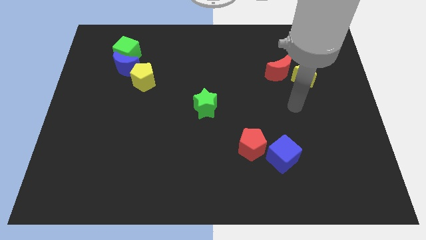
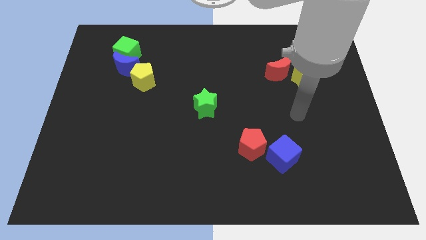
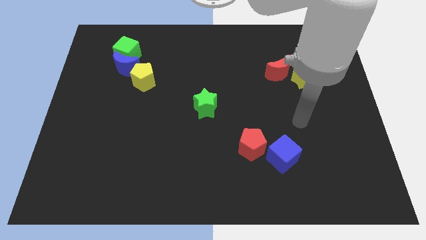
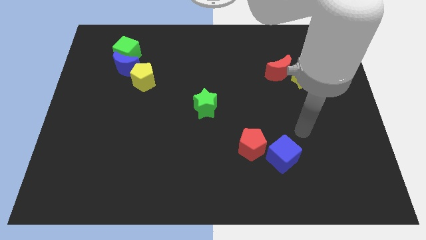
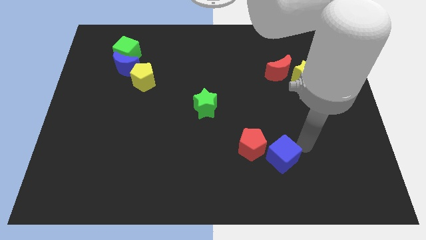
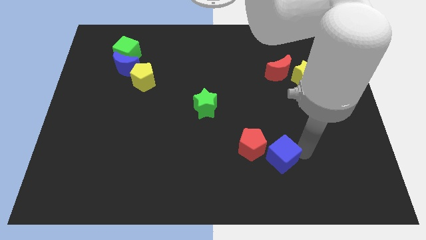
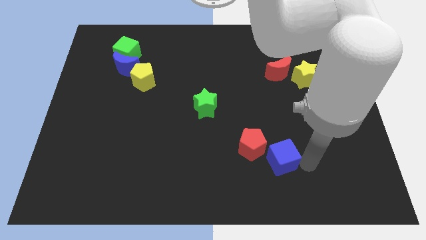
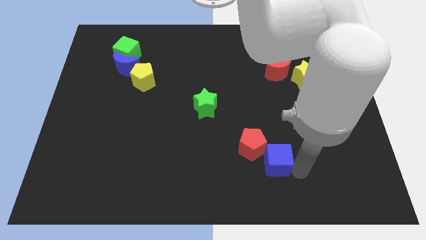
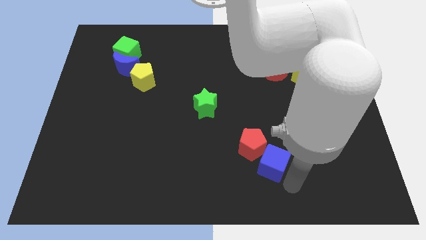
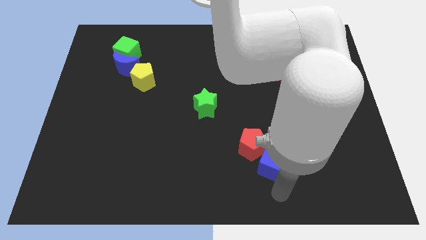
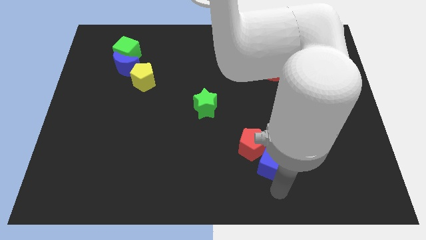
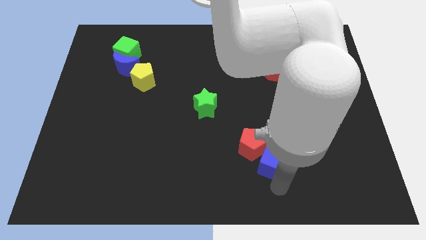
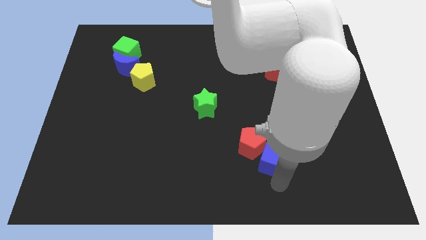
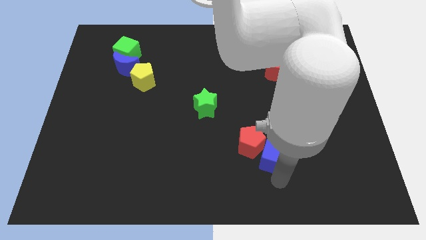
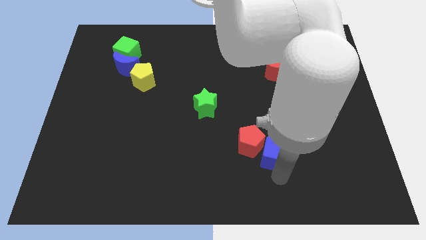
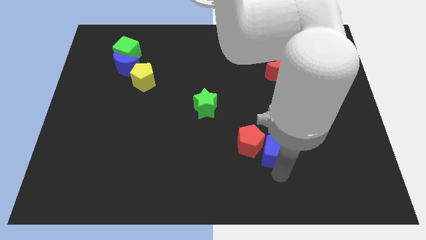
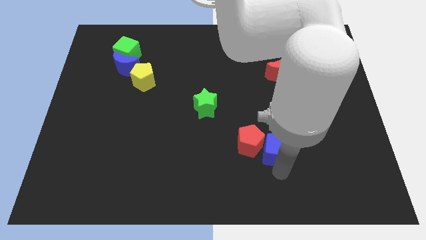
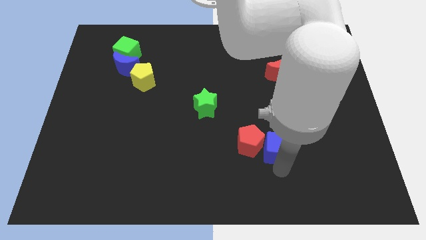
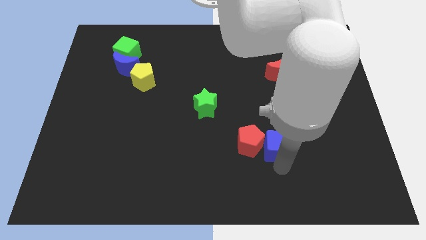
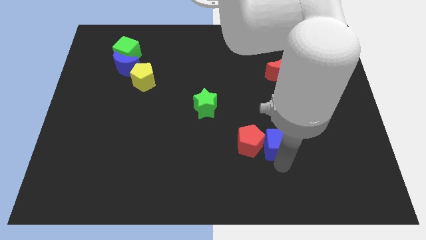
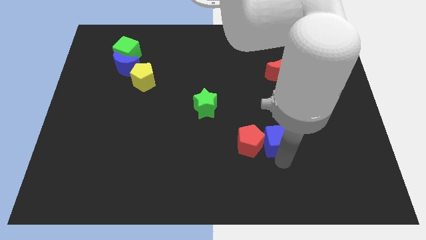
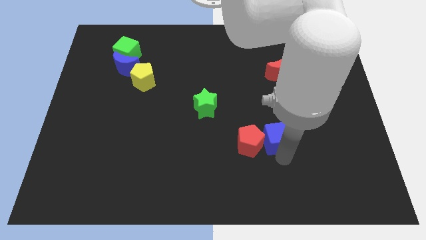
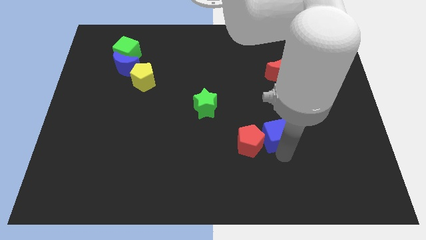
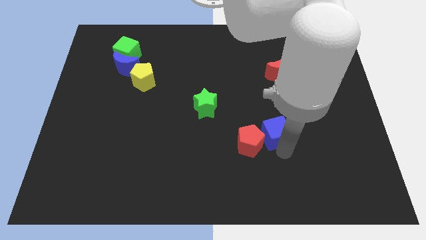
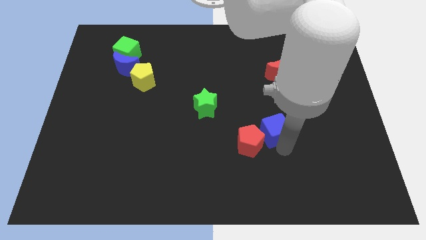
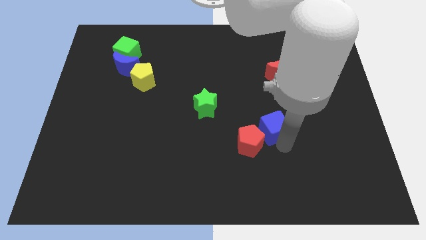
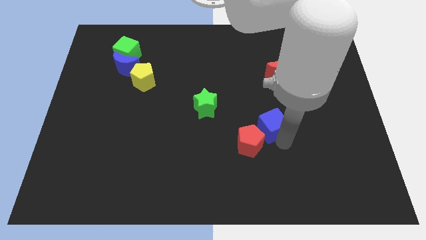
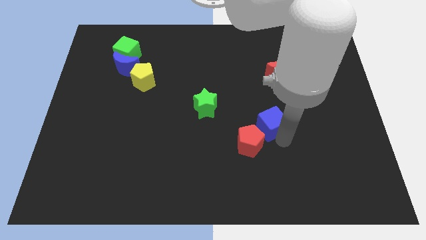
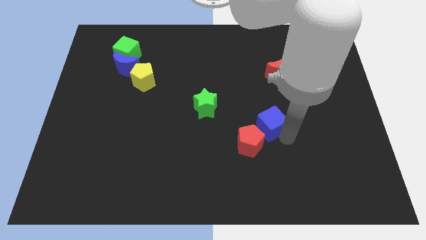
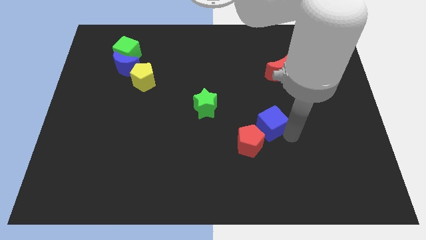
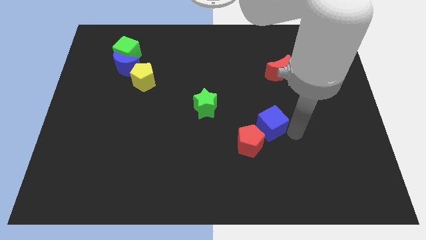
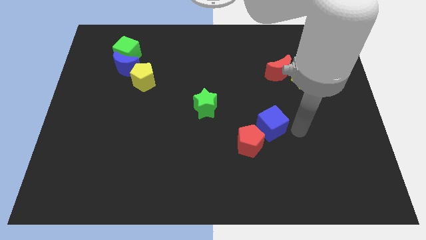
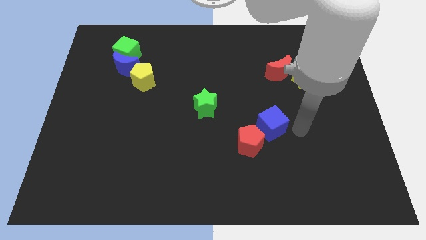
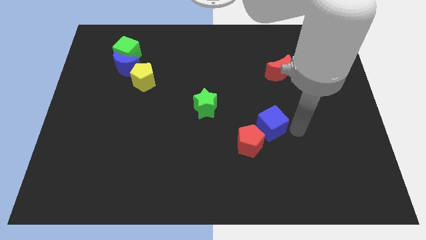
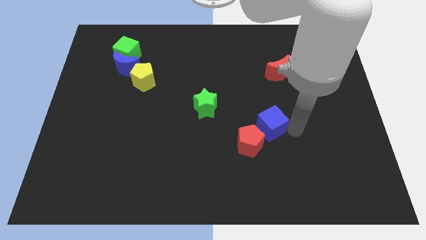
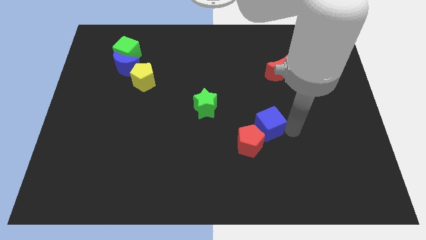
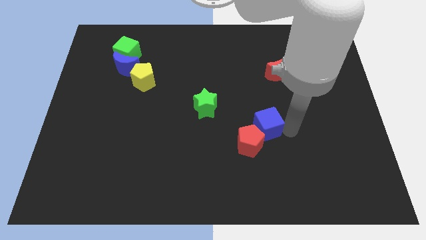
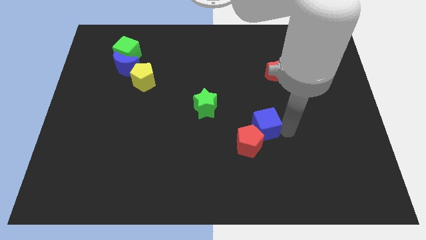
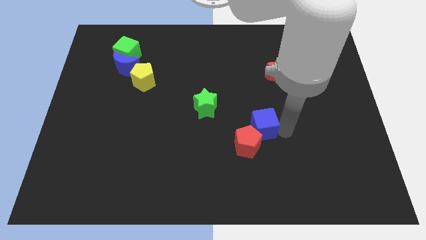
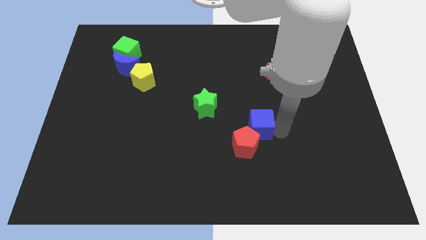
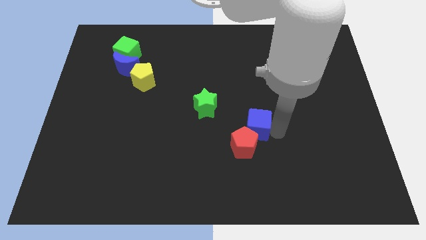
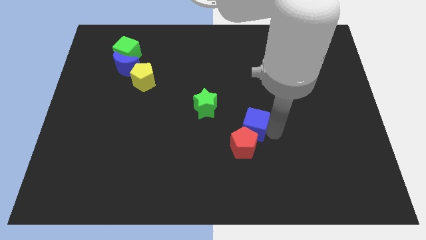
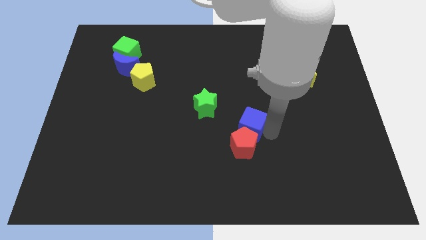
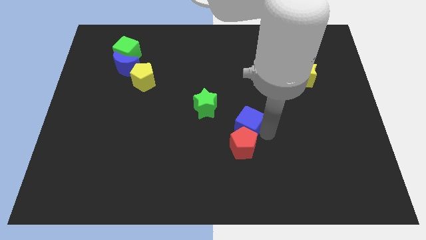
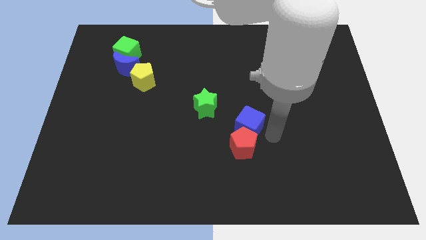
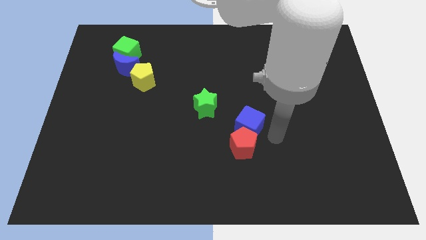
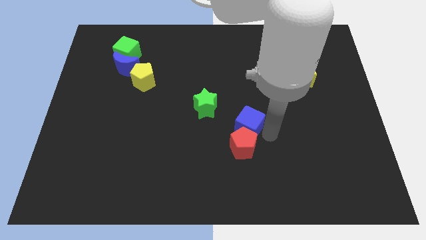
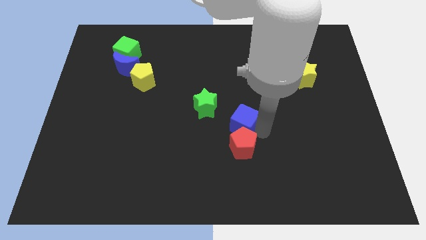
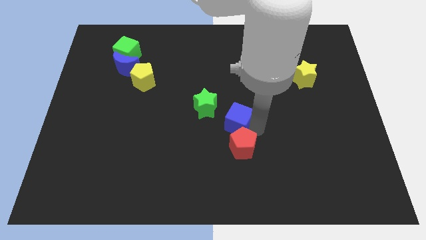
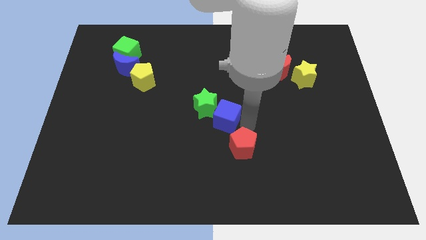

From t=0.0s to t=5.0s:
move the blue cube next to the green star

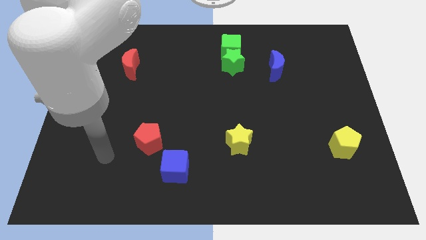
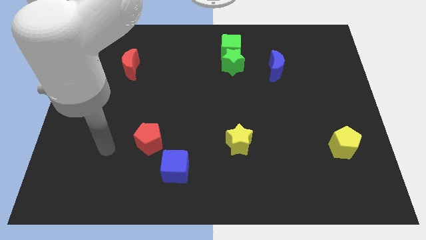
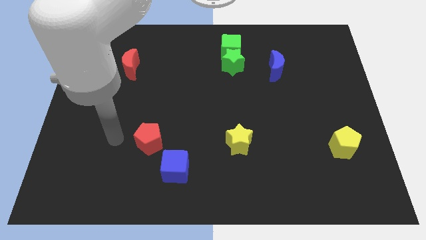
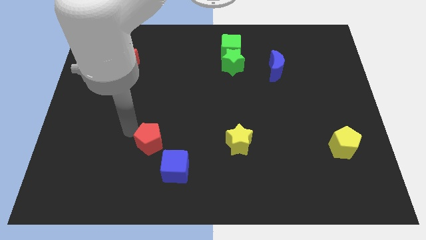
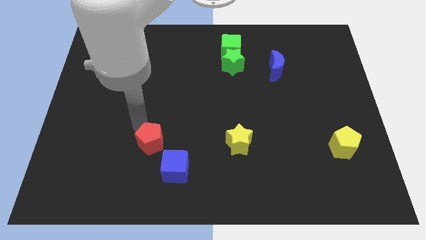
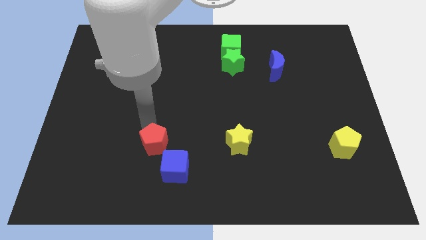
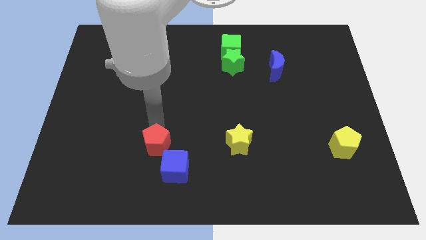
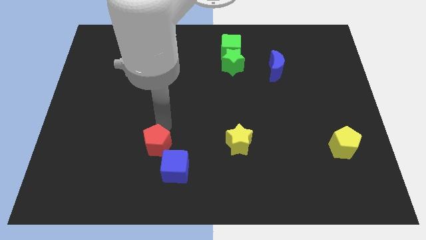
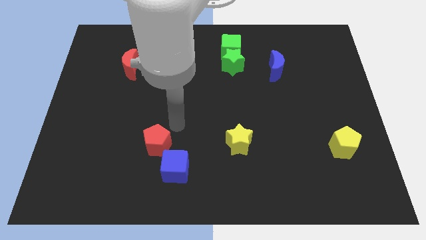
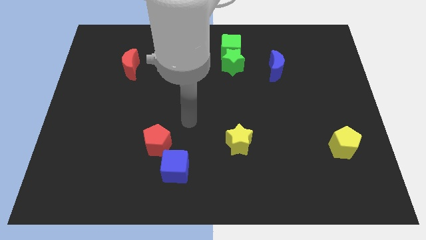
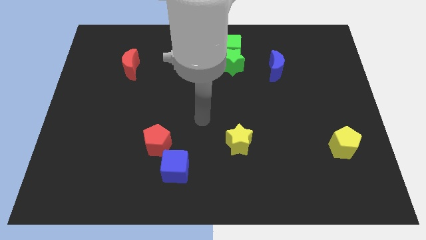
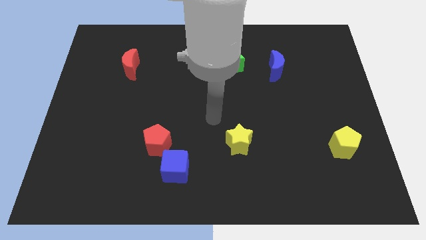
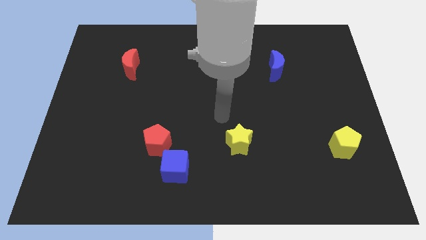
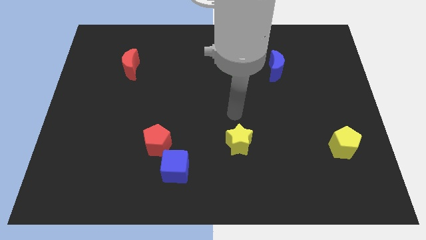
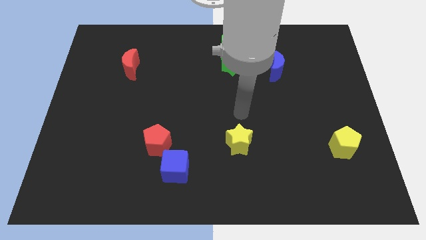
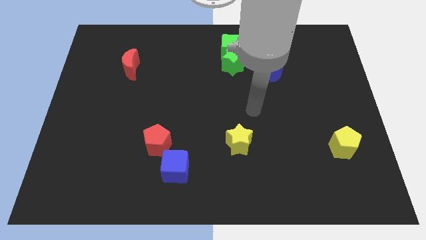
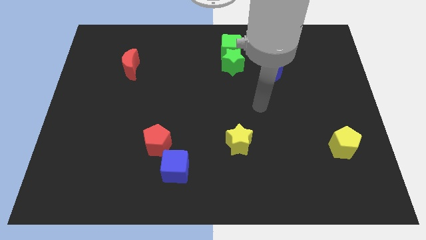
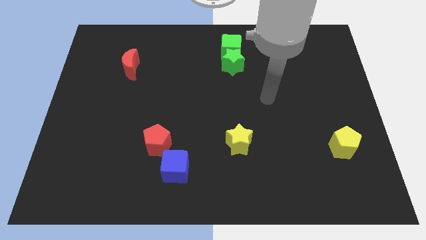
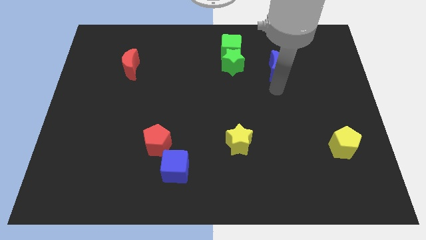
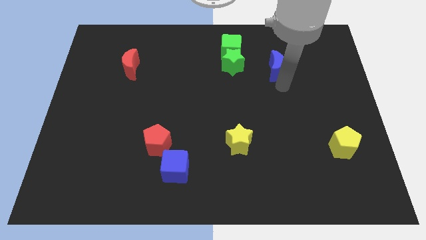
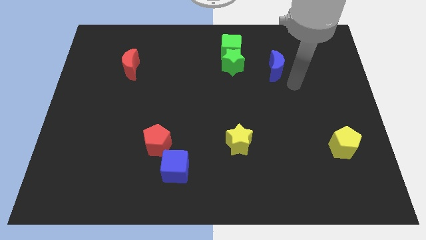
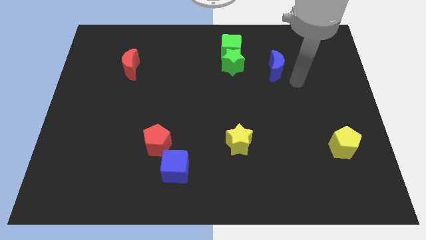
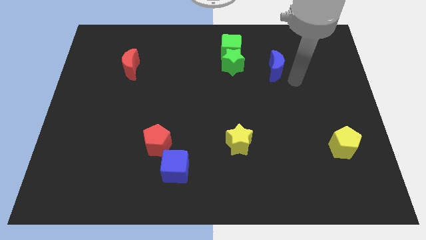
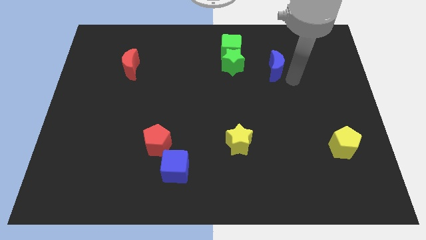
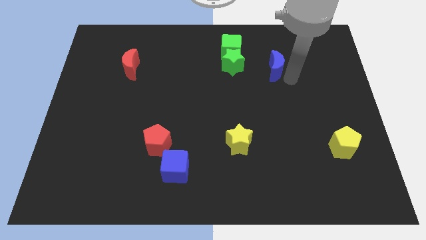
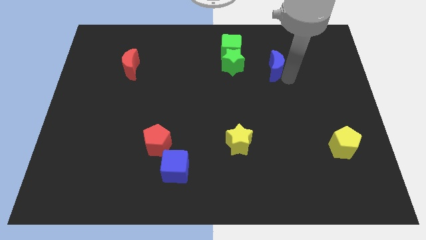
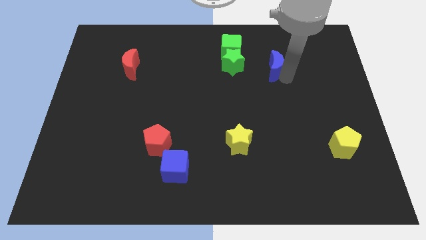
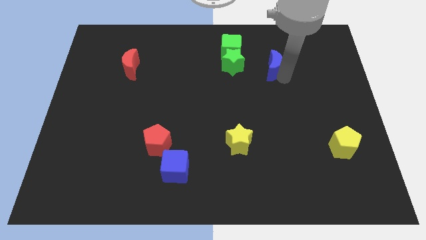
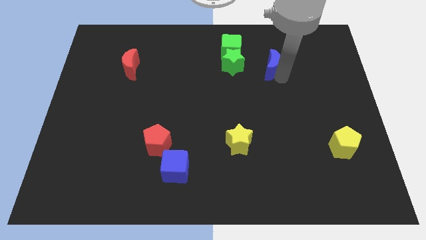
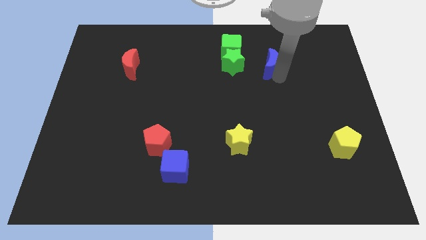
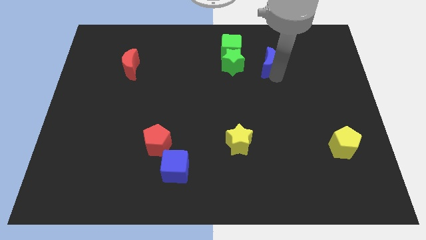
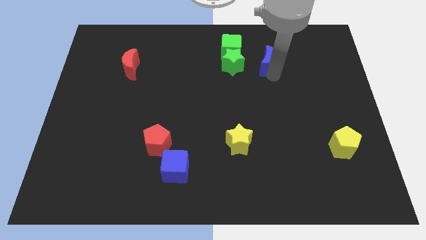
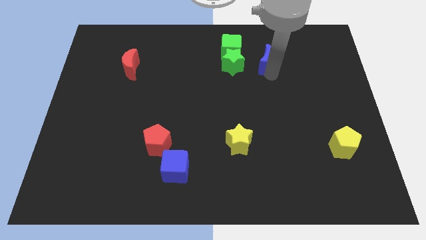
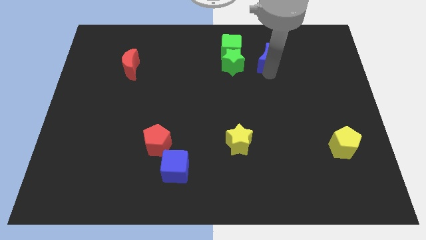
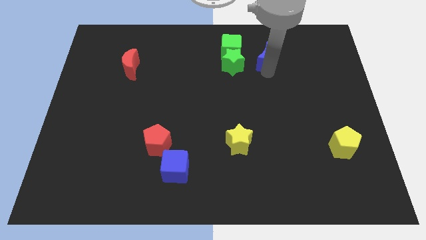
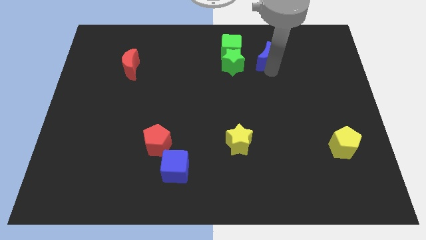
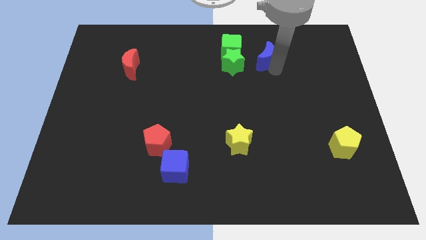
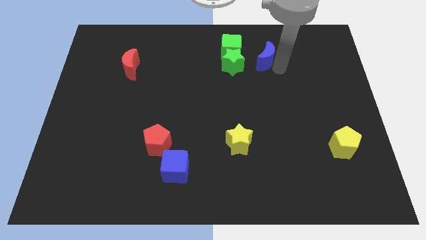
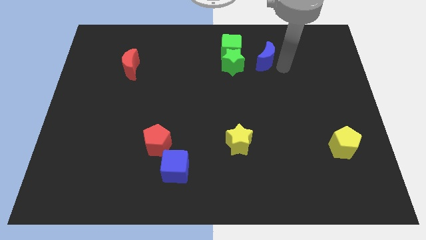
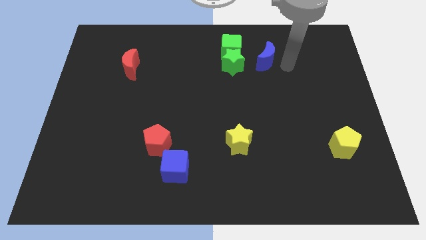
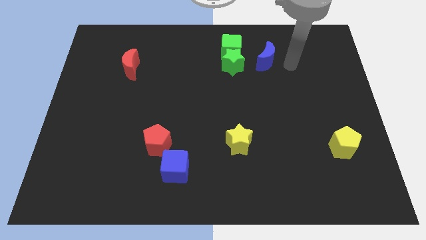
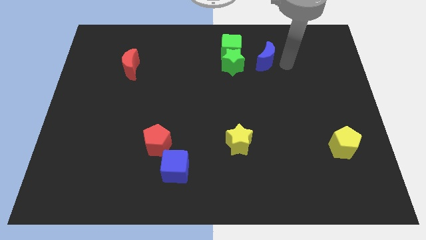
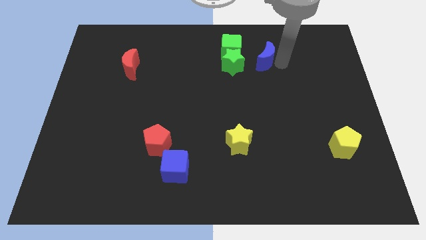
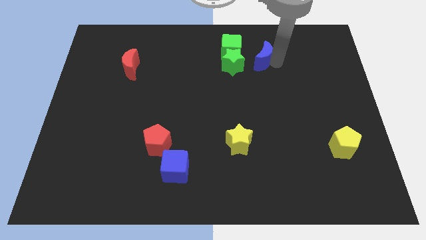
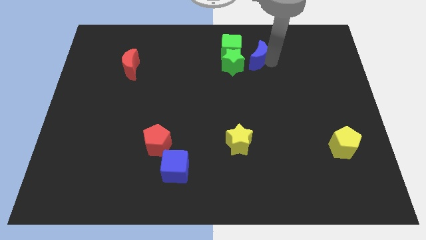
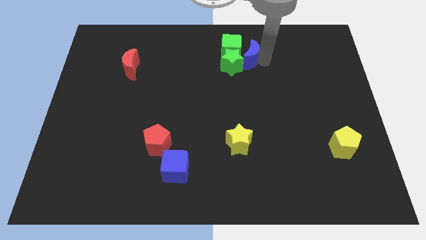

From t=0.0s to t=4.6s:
move the blue moon next to the green cube
